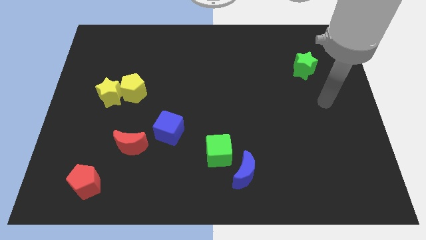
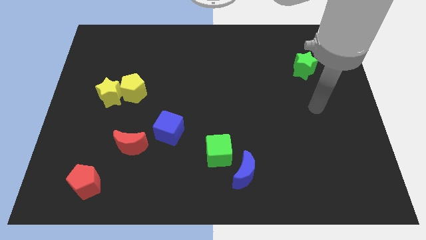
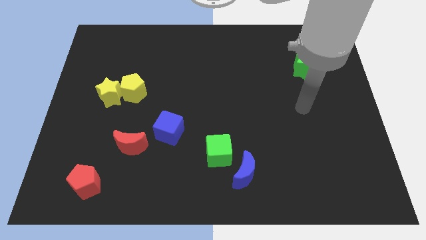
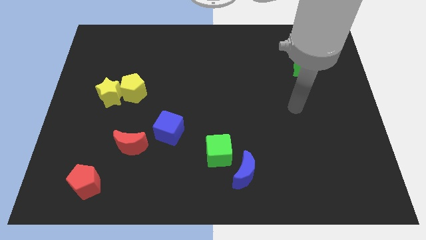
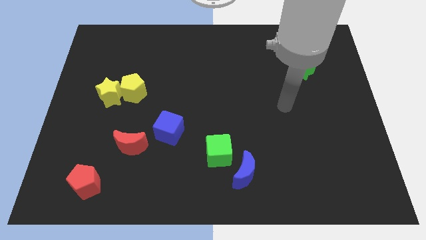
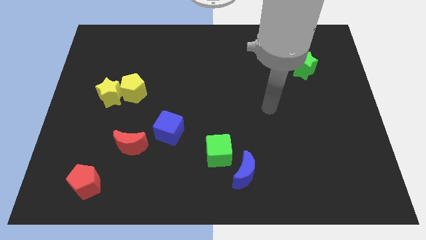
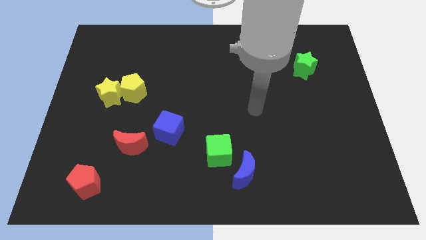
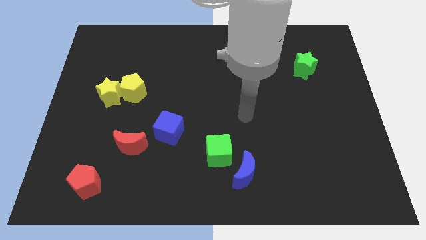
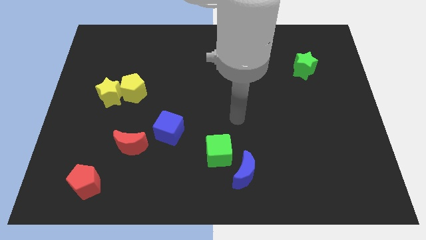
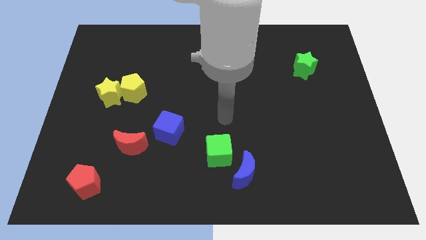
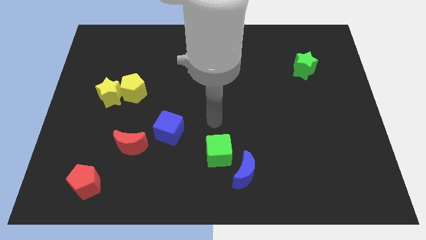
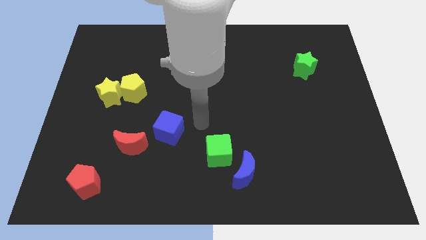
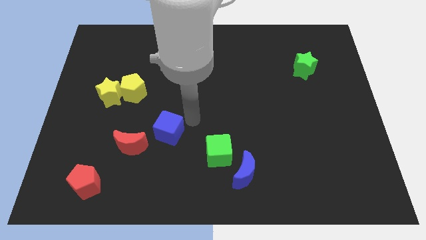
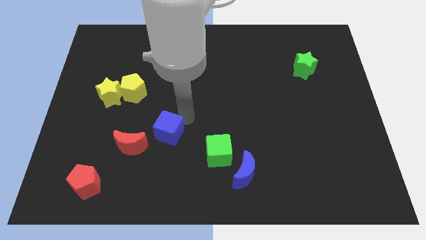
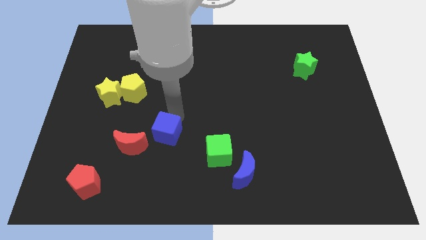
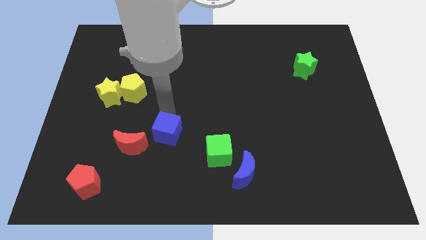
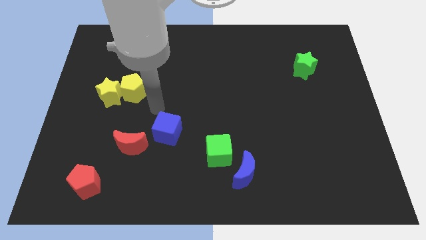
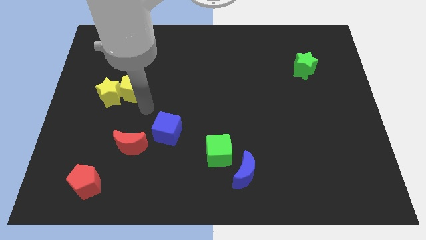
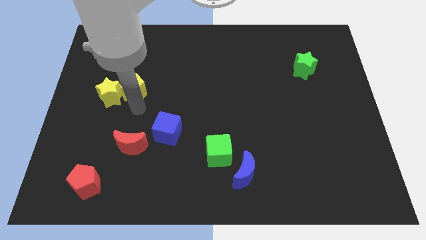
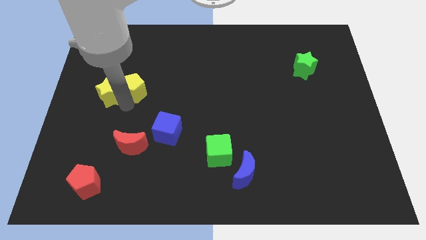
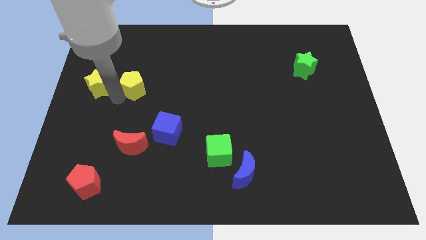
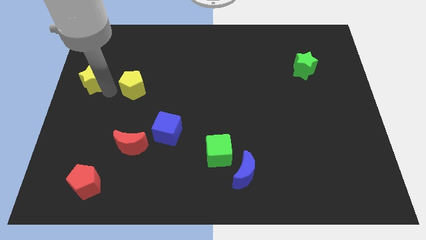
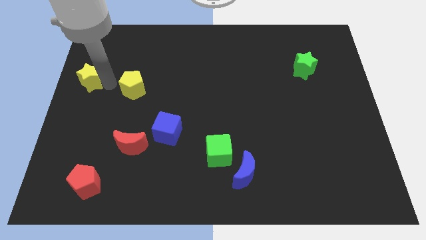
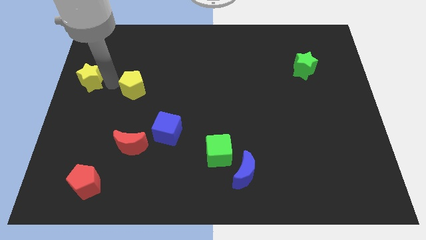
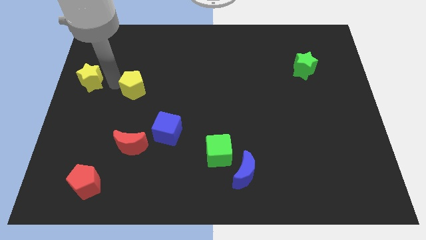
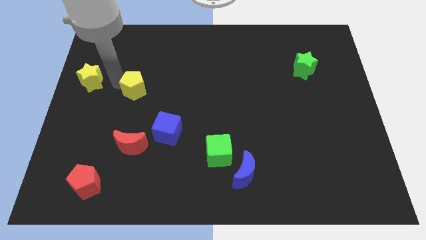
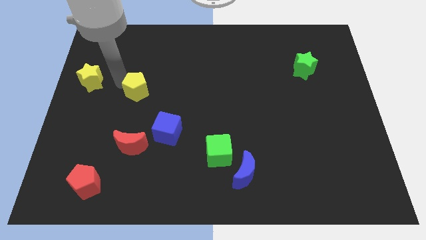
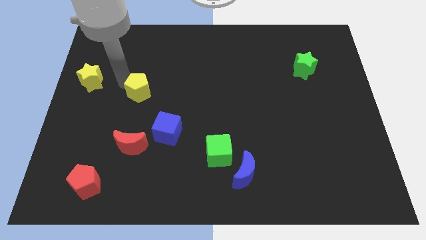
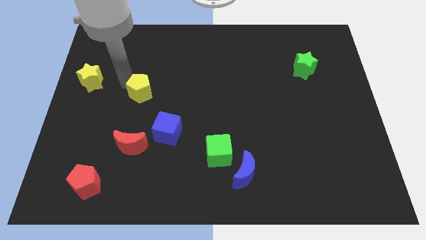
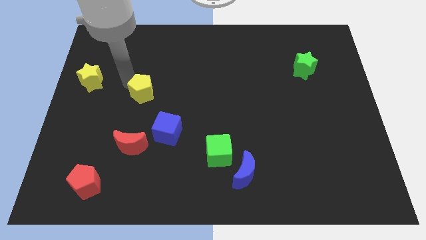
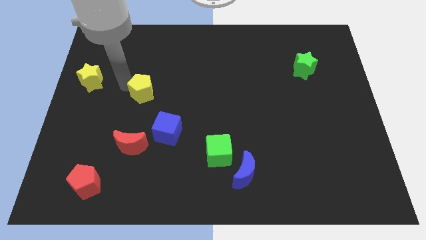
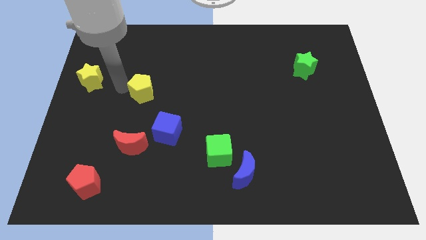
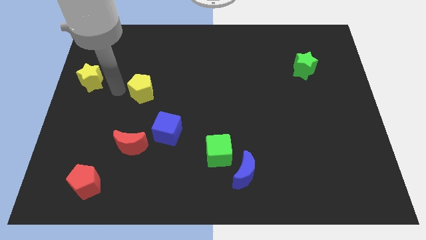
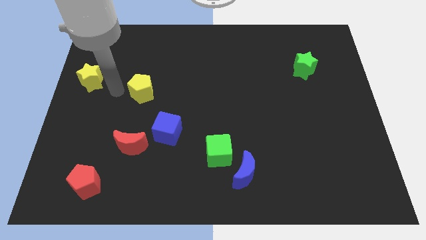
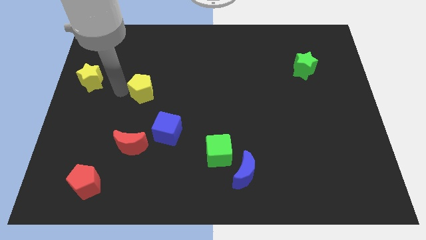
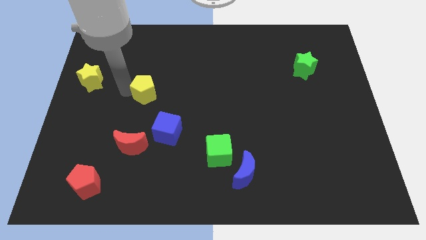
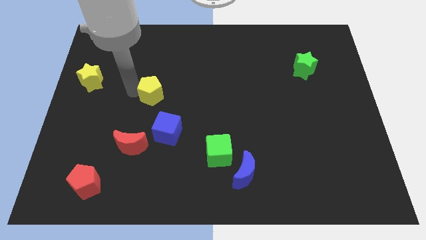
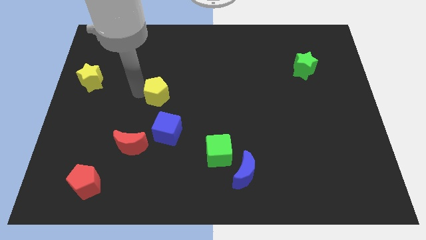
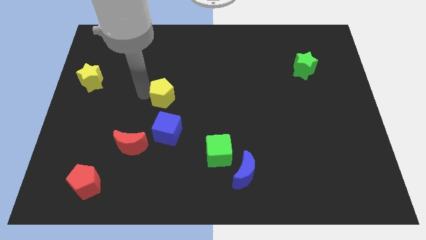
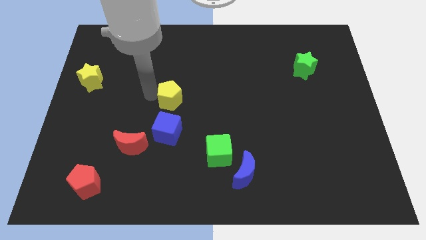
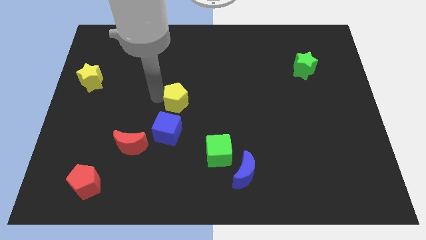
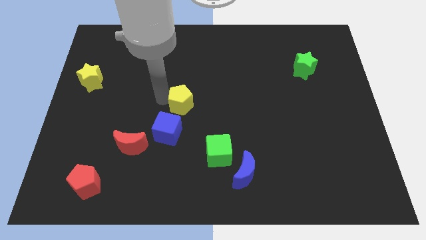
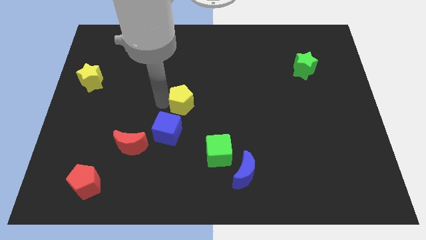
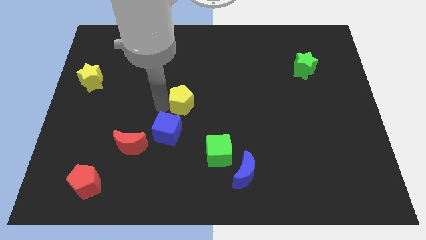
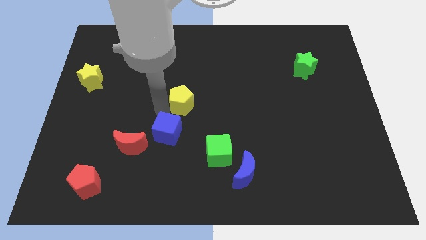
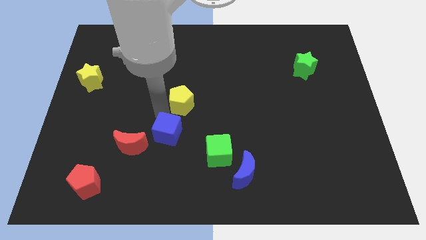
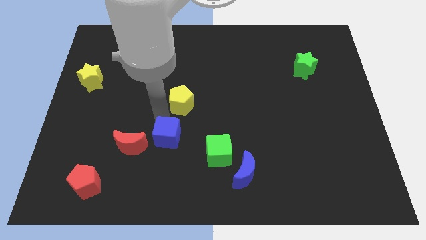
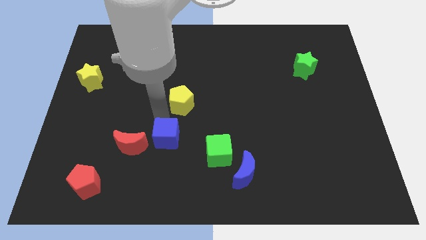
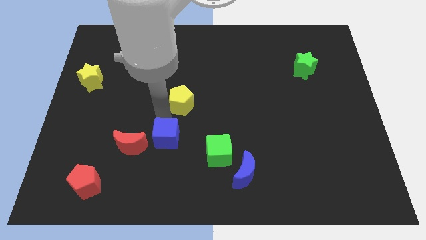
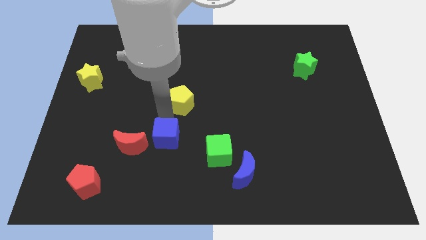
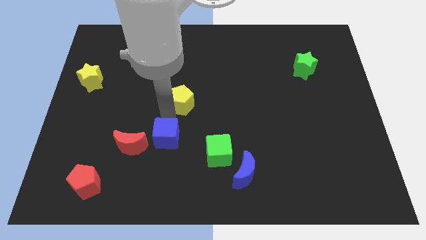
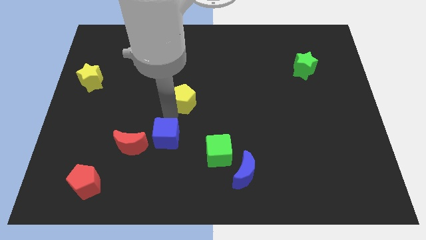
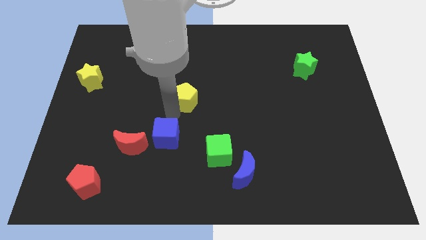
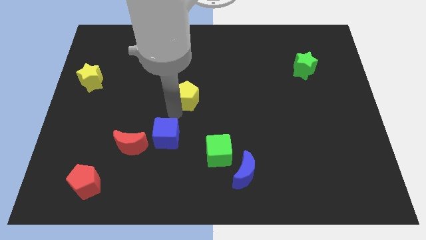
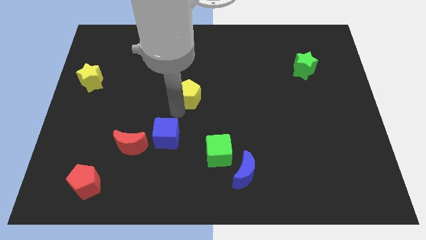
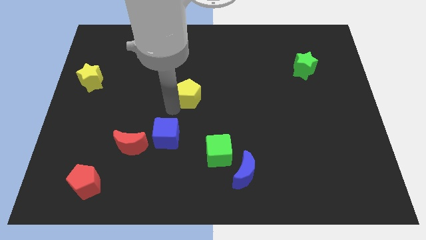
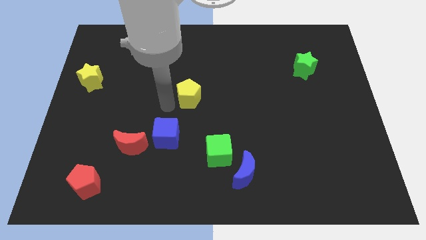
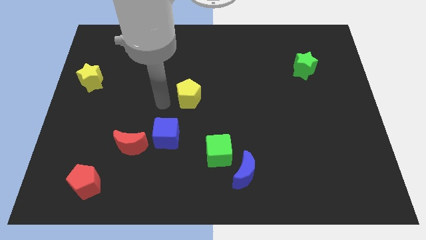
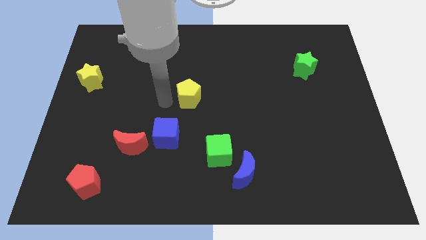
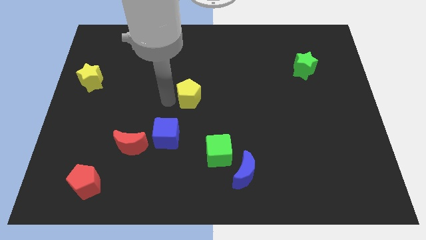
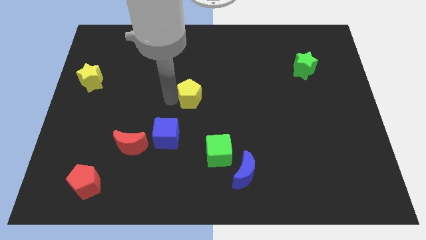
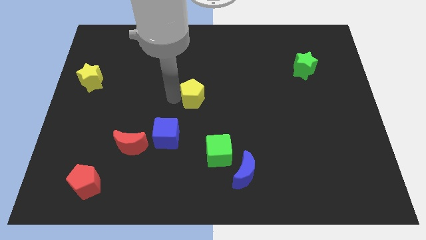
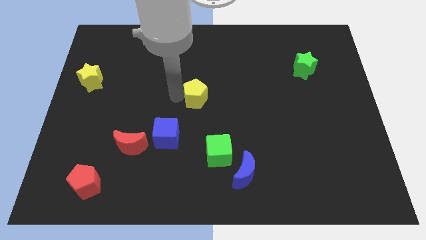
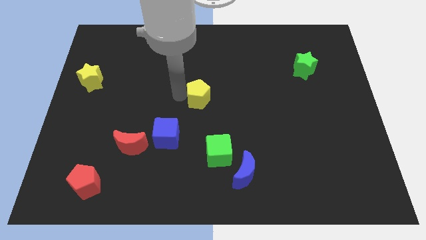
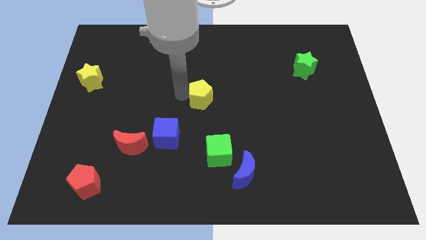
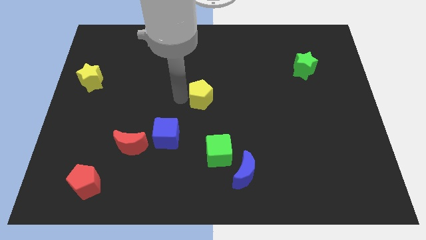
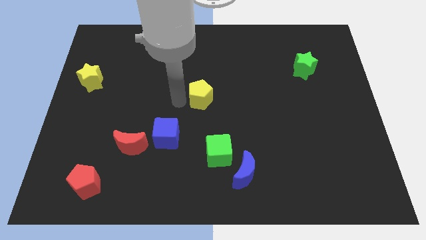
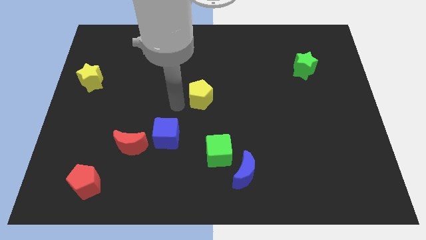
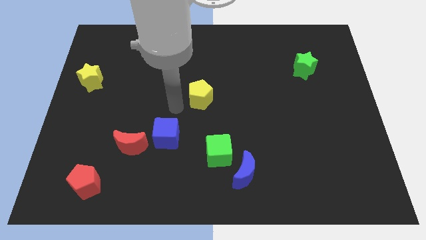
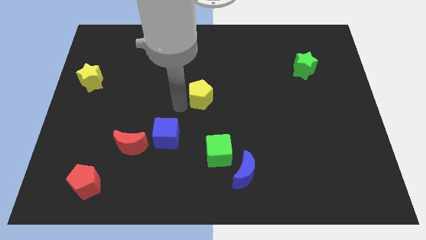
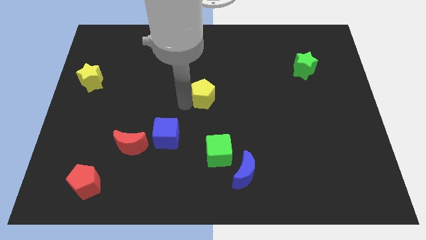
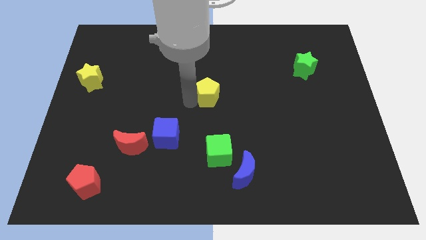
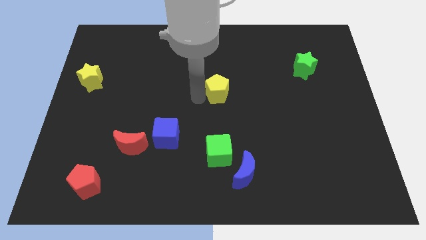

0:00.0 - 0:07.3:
slide the yellow pentagon to the right

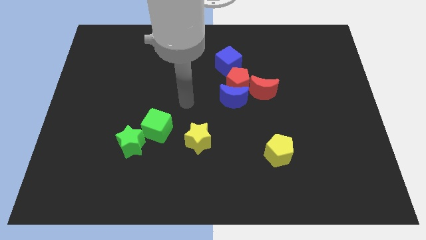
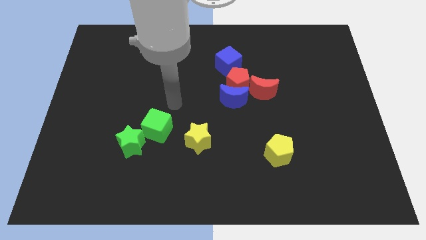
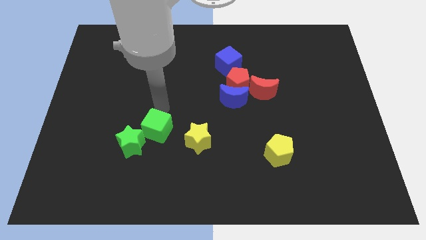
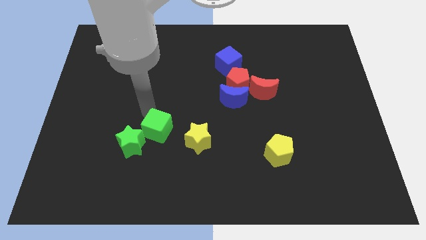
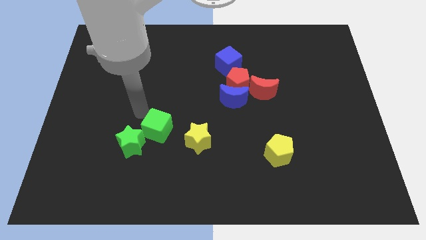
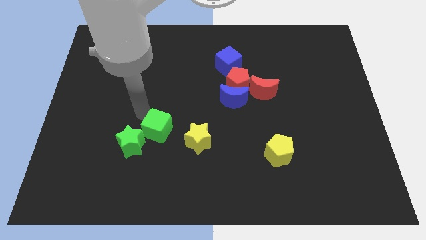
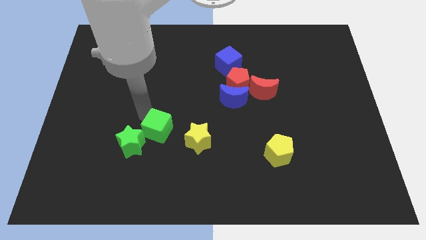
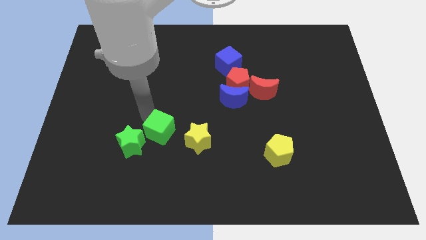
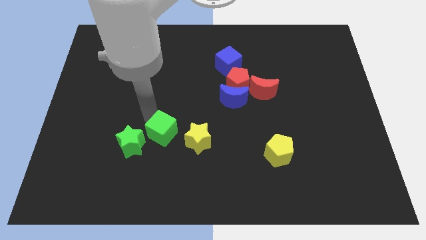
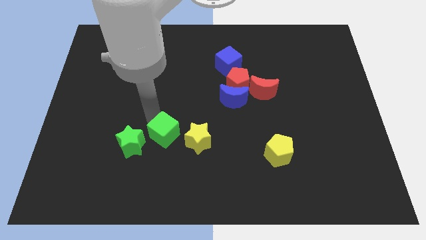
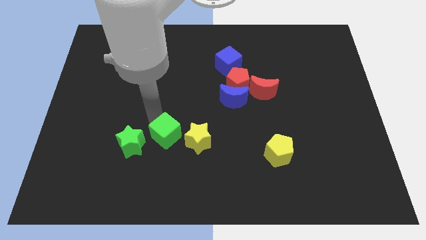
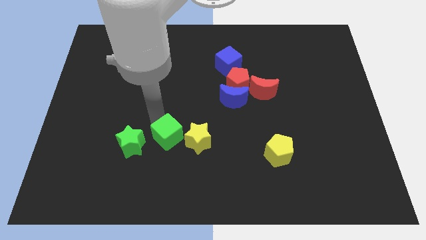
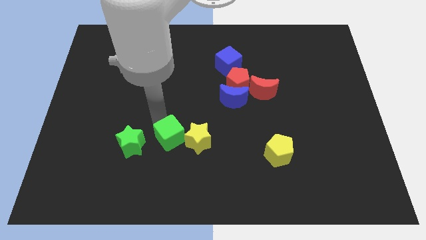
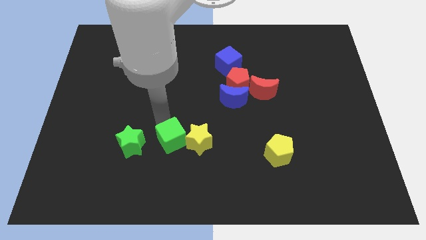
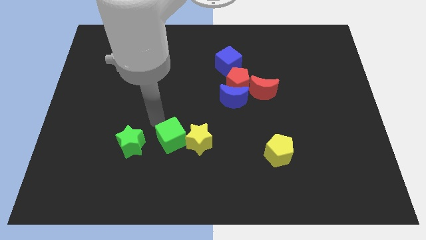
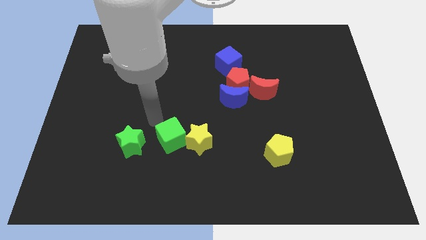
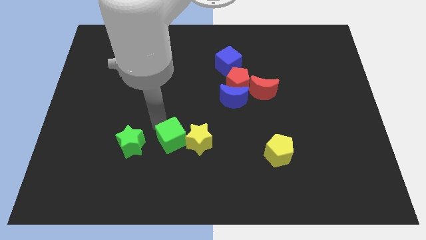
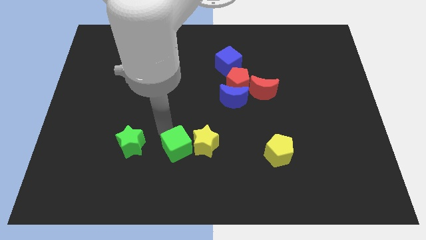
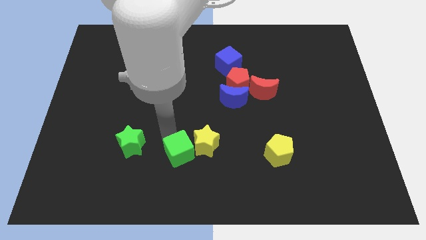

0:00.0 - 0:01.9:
move the green cube a little downwards and to the right
